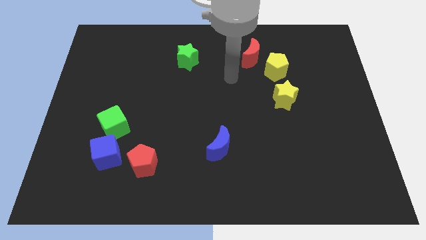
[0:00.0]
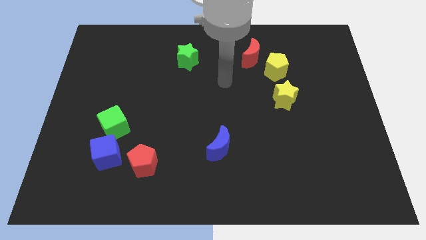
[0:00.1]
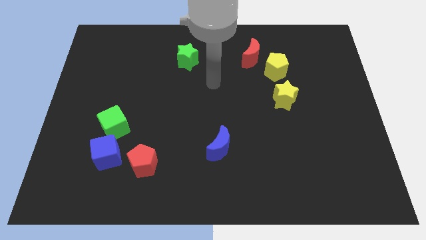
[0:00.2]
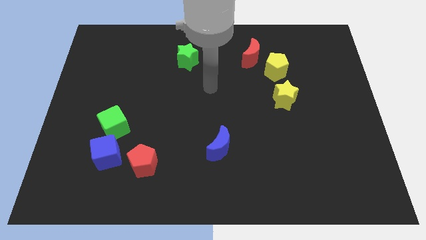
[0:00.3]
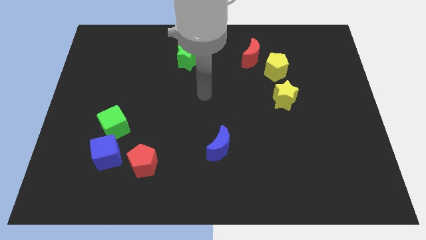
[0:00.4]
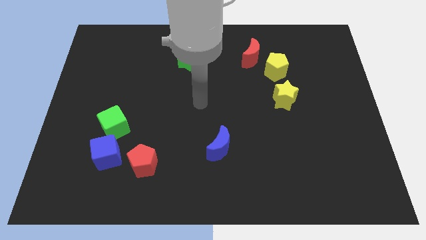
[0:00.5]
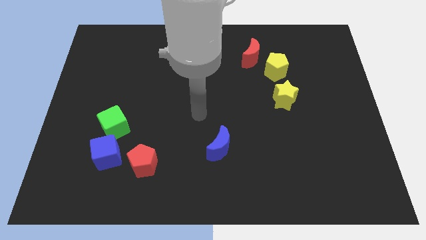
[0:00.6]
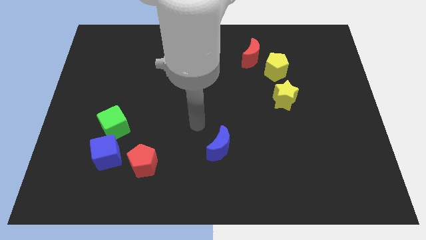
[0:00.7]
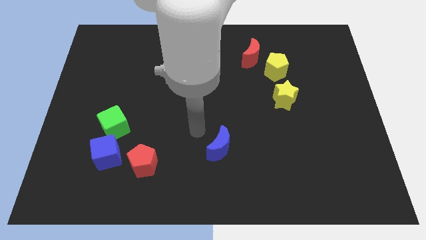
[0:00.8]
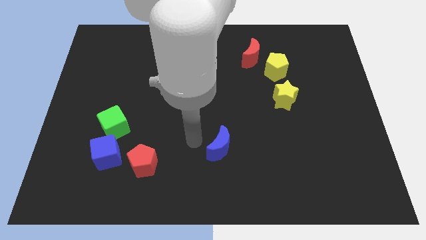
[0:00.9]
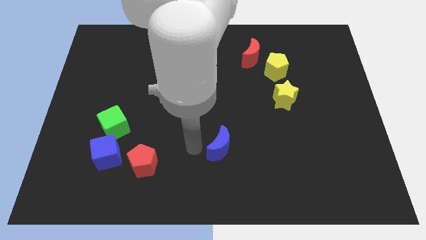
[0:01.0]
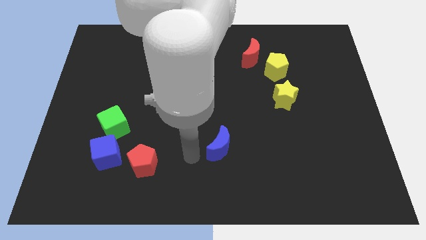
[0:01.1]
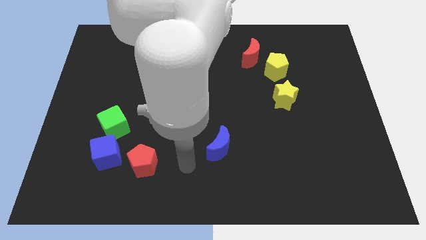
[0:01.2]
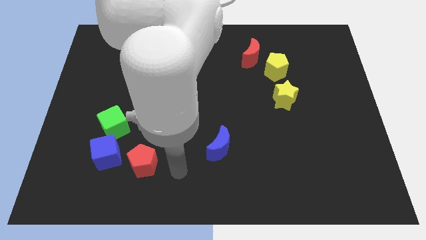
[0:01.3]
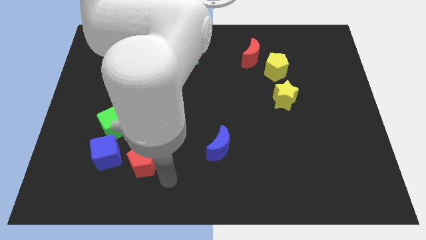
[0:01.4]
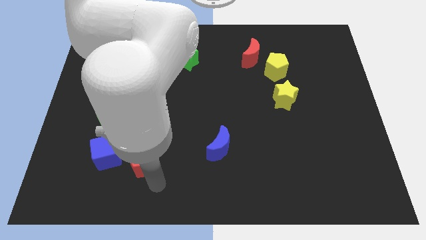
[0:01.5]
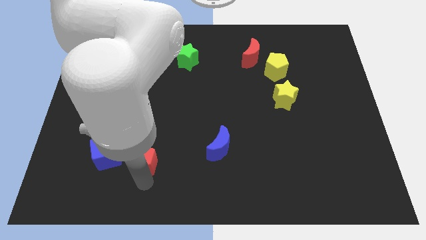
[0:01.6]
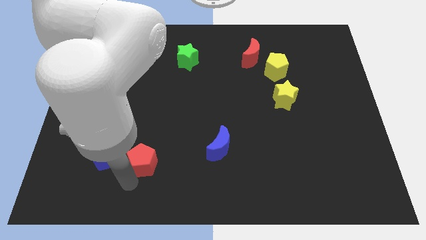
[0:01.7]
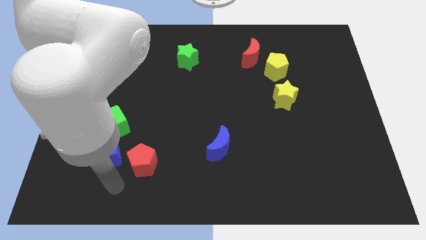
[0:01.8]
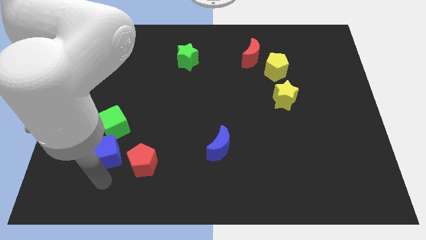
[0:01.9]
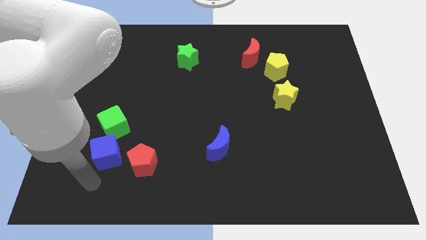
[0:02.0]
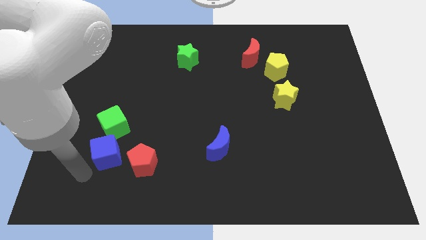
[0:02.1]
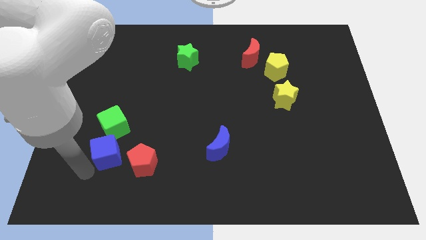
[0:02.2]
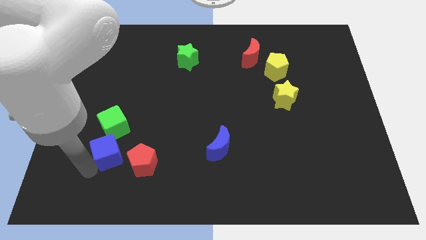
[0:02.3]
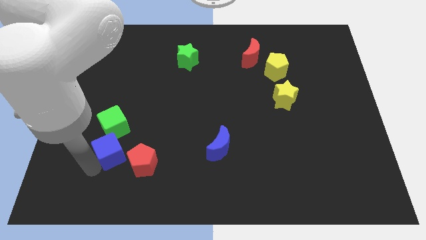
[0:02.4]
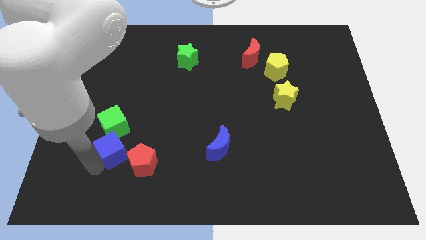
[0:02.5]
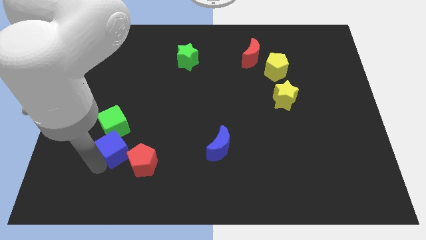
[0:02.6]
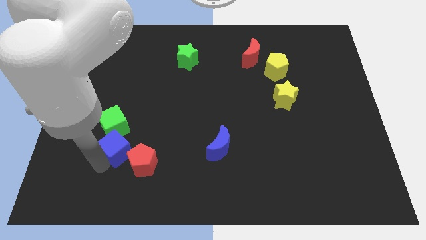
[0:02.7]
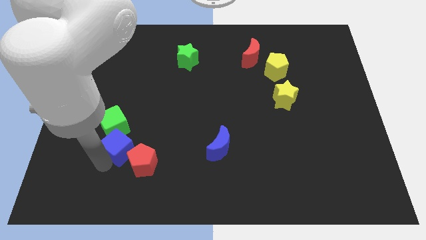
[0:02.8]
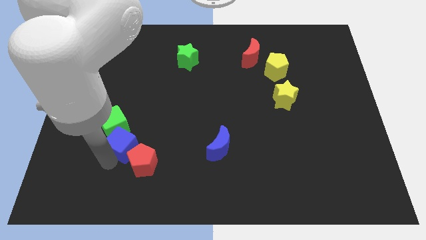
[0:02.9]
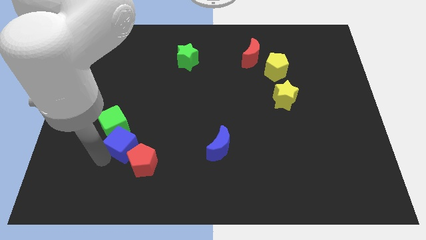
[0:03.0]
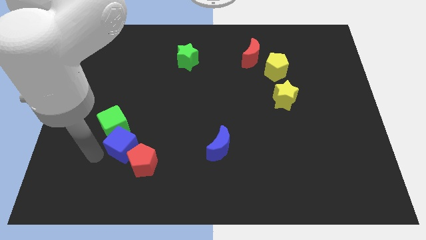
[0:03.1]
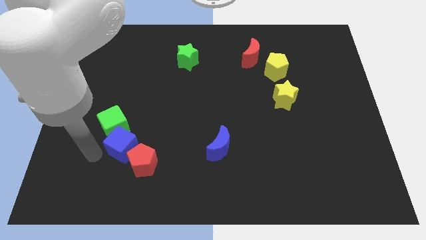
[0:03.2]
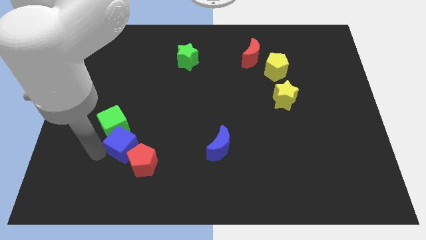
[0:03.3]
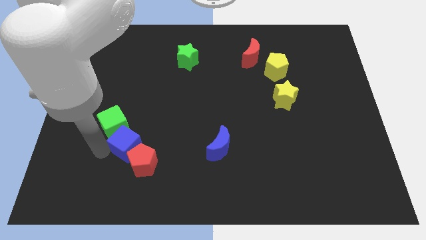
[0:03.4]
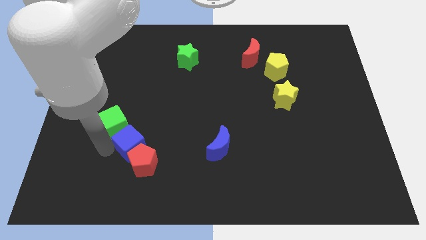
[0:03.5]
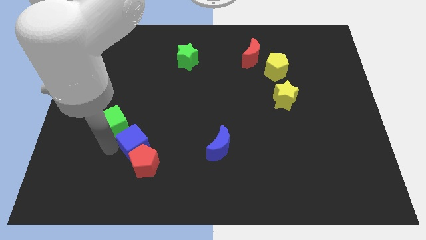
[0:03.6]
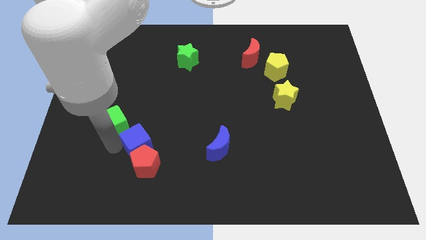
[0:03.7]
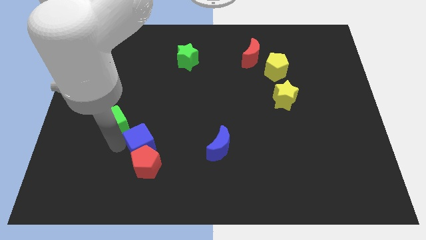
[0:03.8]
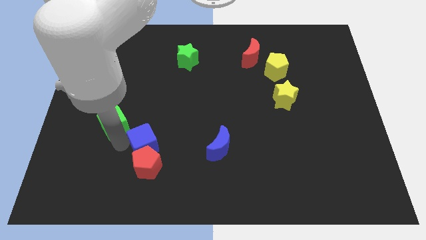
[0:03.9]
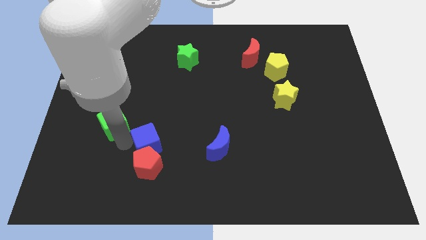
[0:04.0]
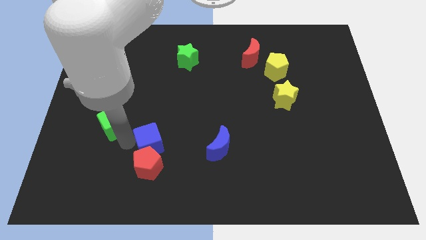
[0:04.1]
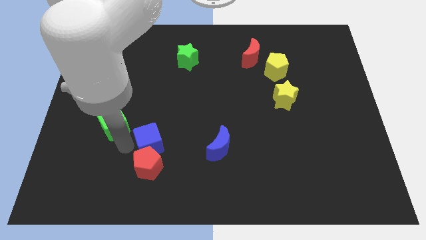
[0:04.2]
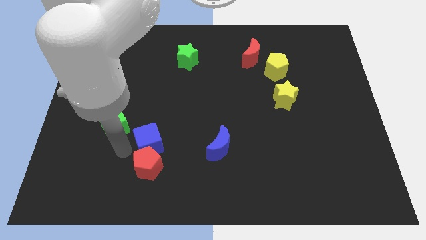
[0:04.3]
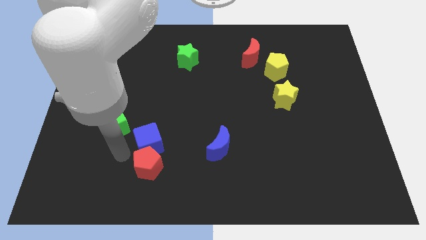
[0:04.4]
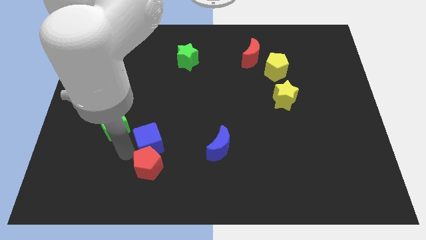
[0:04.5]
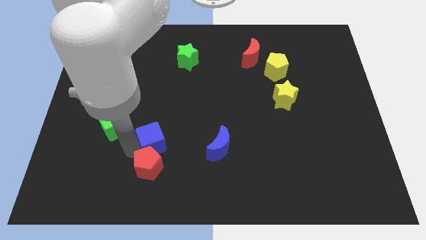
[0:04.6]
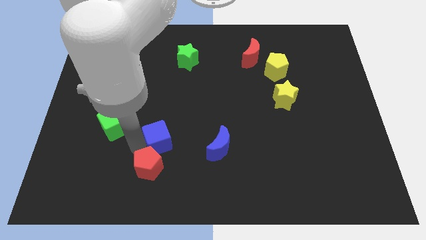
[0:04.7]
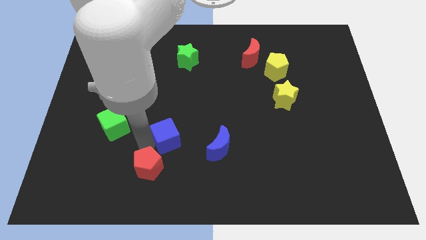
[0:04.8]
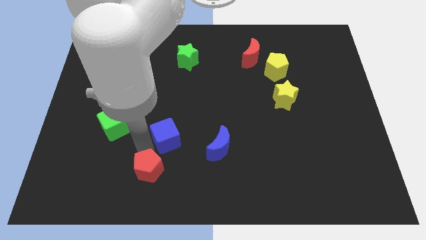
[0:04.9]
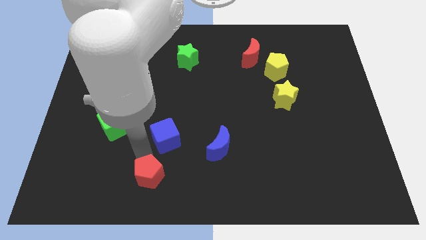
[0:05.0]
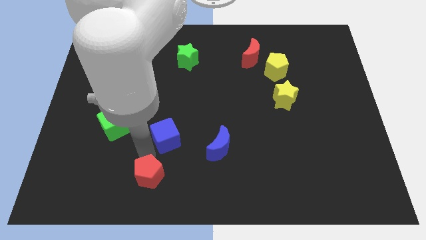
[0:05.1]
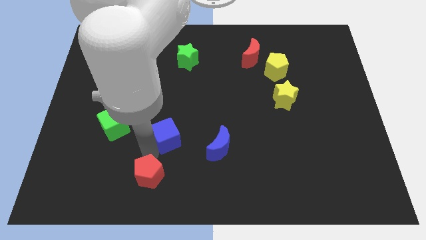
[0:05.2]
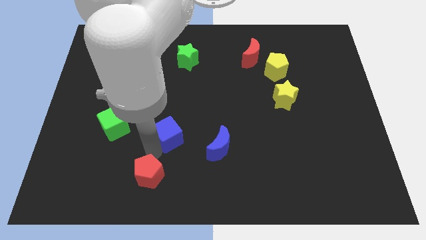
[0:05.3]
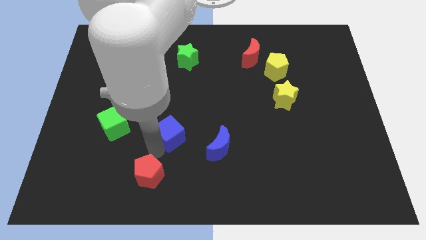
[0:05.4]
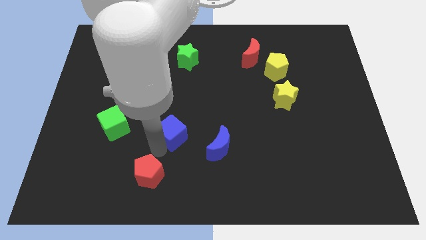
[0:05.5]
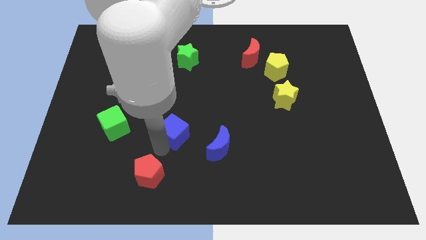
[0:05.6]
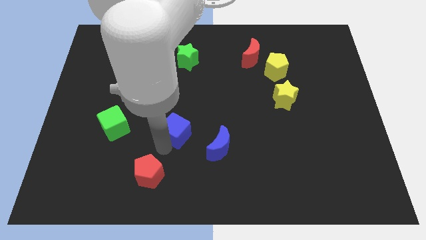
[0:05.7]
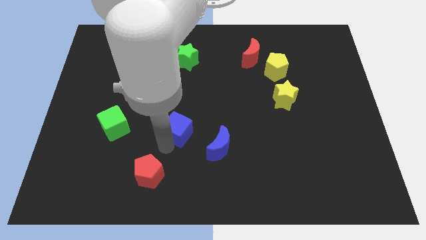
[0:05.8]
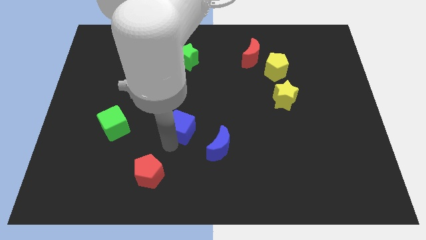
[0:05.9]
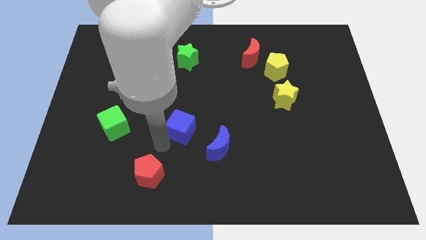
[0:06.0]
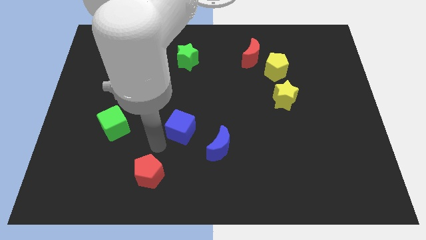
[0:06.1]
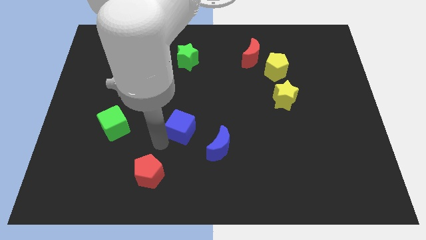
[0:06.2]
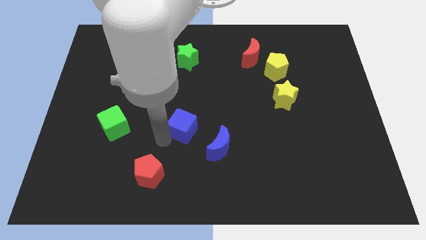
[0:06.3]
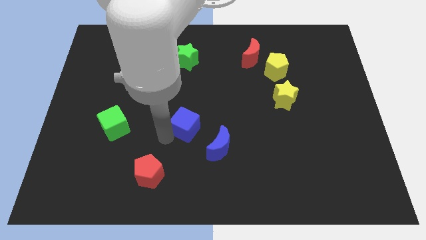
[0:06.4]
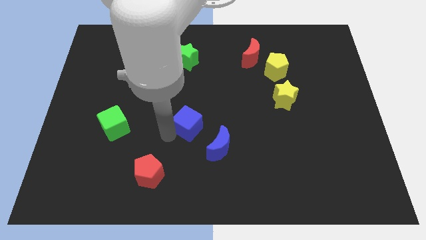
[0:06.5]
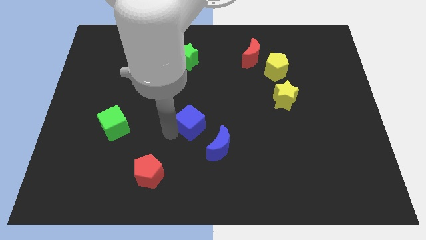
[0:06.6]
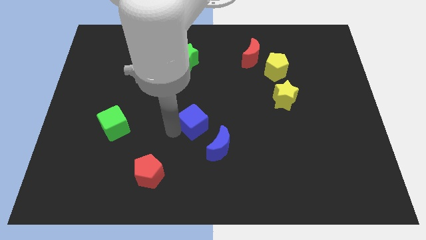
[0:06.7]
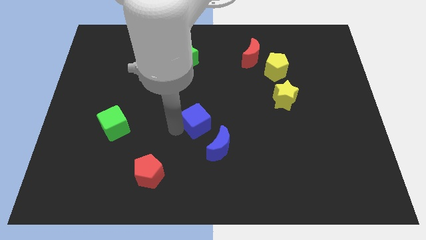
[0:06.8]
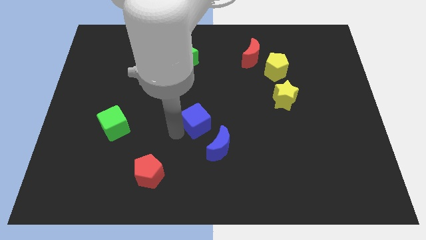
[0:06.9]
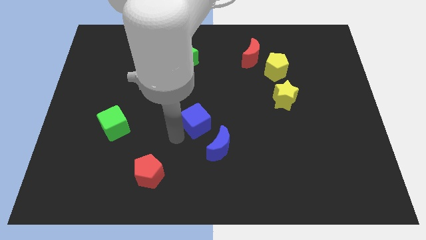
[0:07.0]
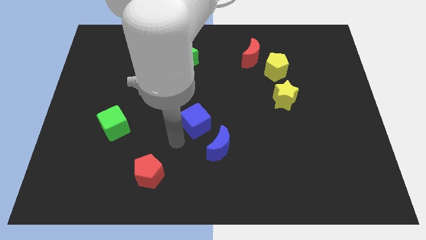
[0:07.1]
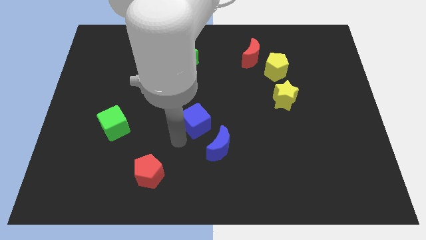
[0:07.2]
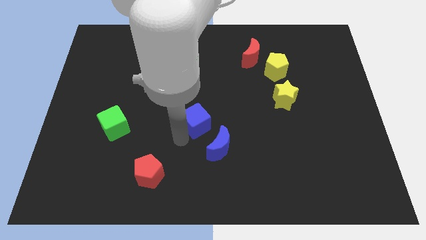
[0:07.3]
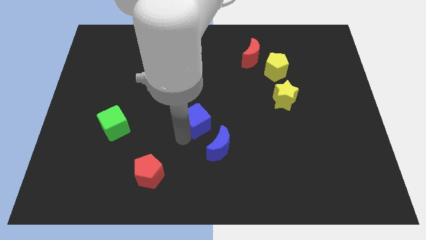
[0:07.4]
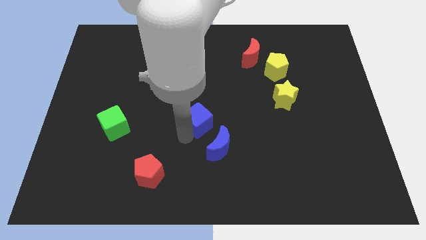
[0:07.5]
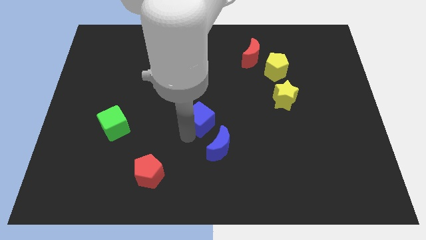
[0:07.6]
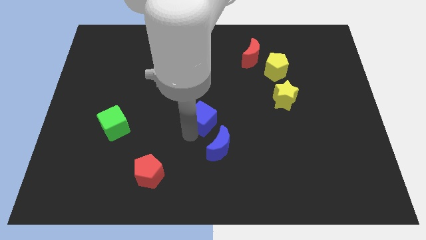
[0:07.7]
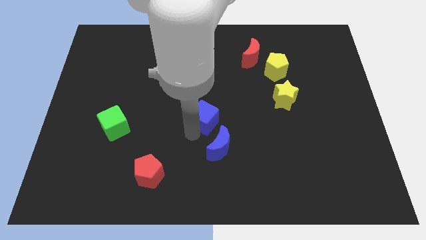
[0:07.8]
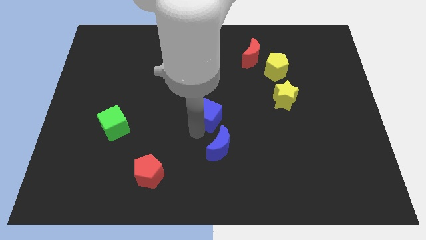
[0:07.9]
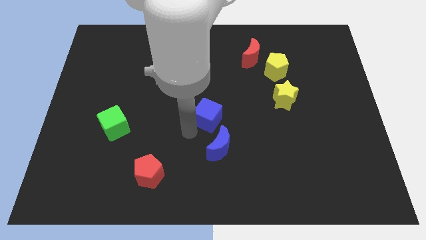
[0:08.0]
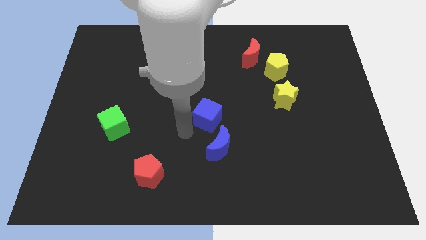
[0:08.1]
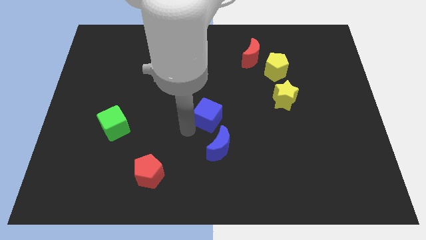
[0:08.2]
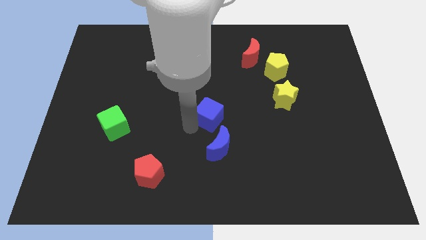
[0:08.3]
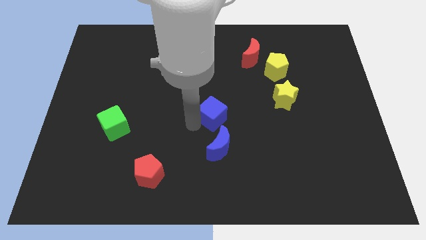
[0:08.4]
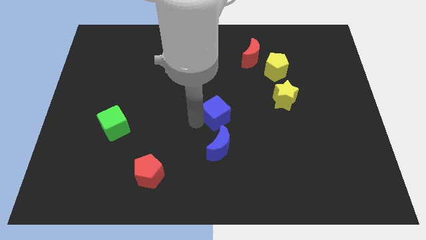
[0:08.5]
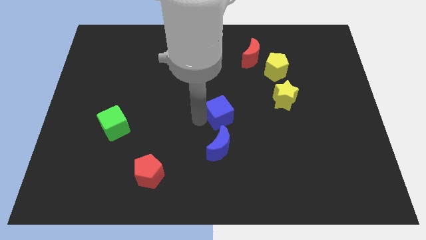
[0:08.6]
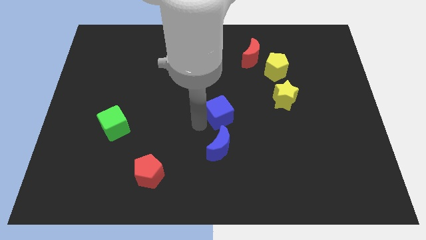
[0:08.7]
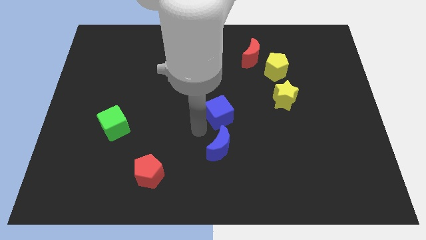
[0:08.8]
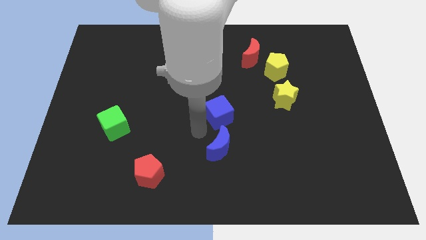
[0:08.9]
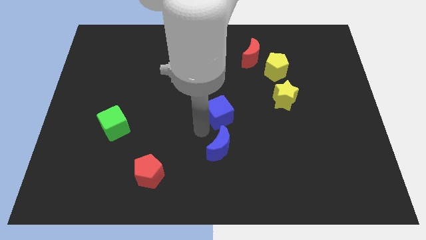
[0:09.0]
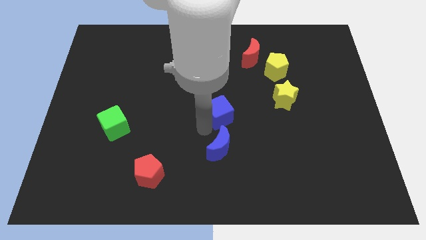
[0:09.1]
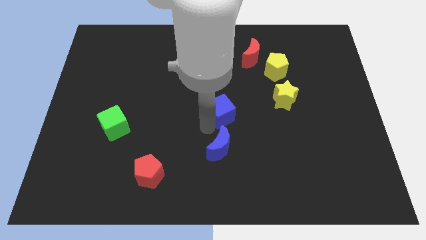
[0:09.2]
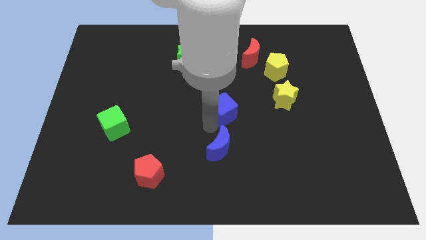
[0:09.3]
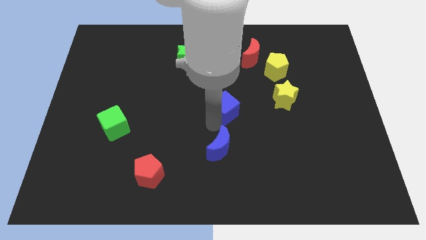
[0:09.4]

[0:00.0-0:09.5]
slide the blue cube to the left side of the yellow star
